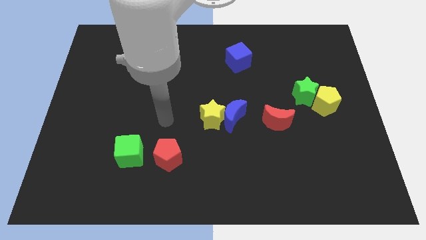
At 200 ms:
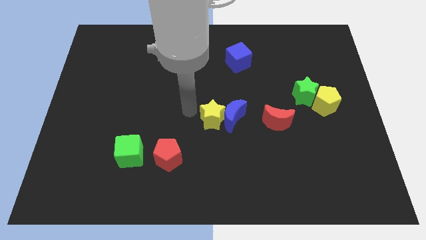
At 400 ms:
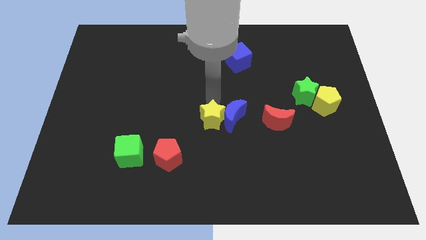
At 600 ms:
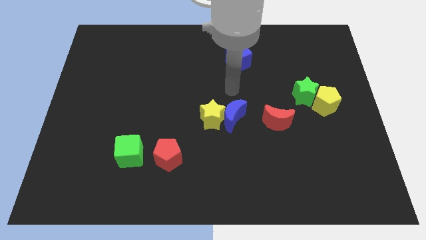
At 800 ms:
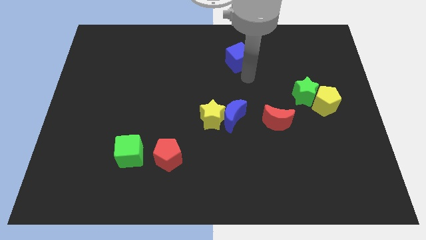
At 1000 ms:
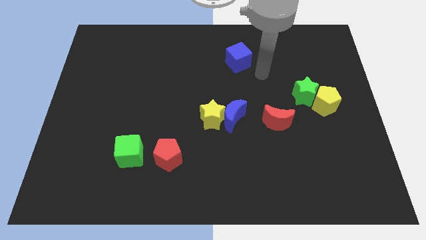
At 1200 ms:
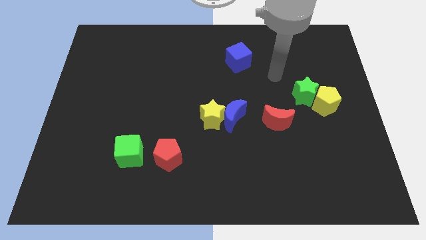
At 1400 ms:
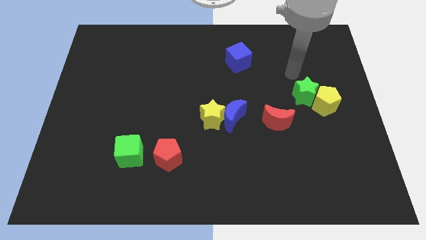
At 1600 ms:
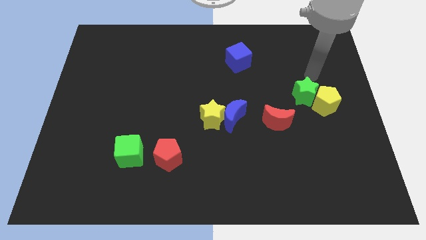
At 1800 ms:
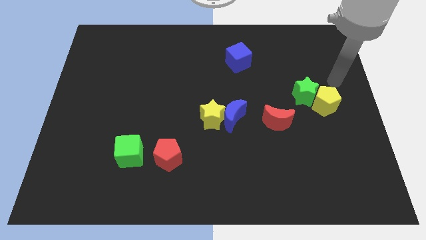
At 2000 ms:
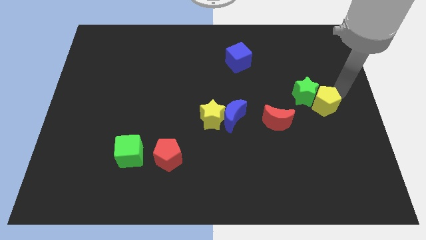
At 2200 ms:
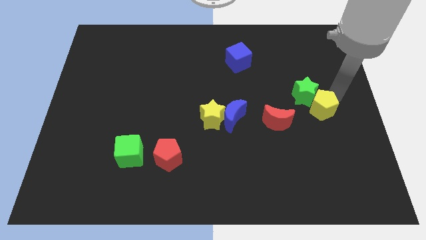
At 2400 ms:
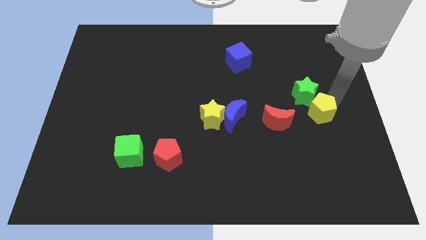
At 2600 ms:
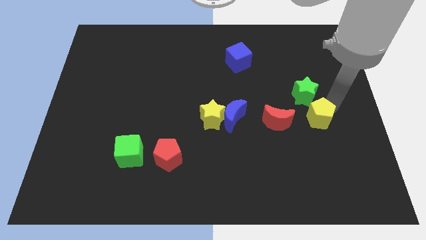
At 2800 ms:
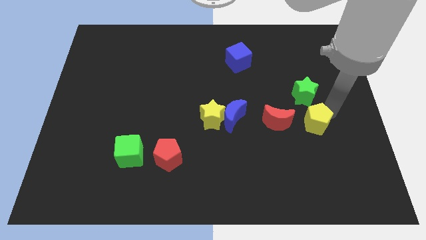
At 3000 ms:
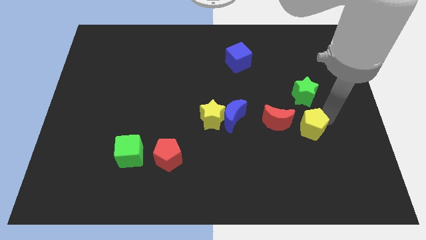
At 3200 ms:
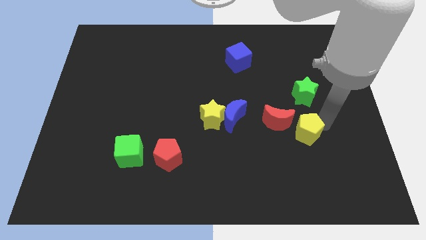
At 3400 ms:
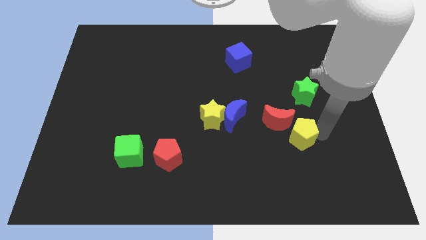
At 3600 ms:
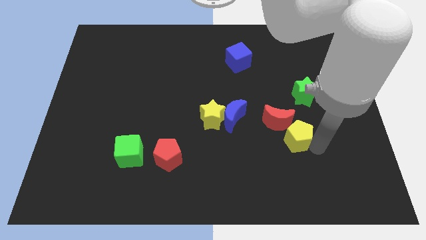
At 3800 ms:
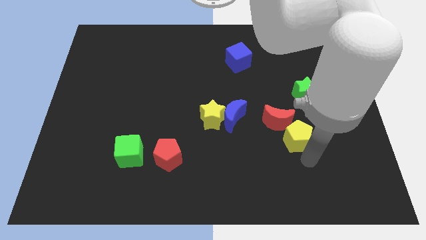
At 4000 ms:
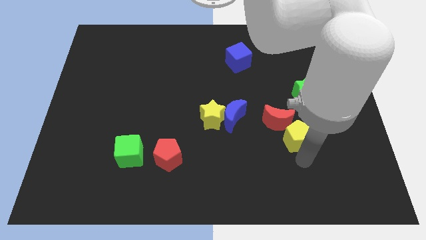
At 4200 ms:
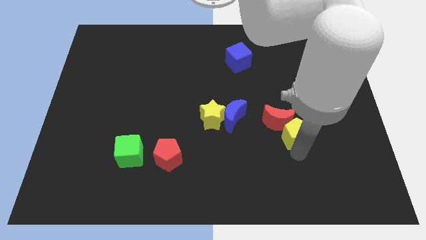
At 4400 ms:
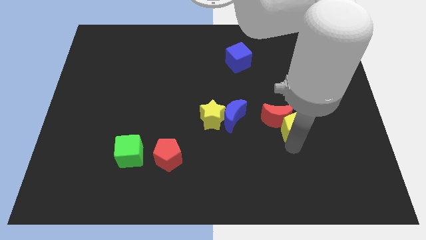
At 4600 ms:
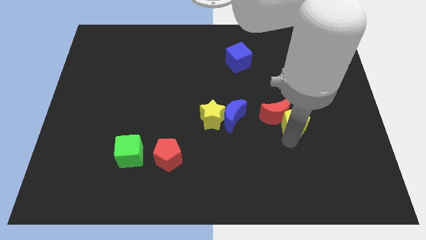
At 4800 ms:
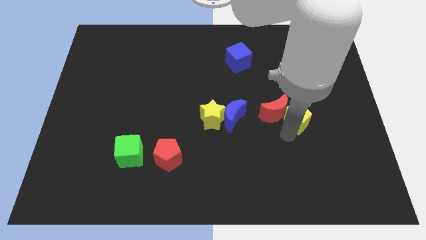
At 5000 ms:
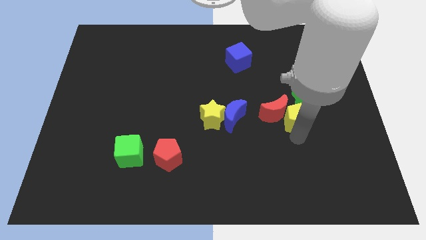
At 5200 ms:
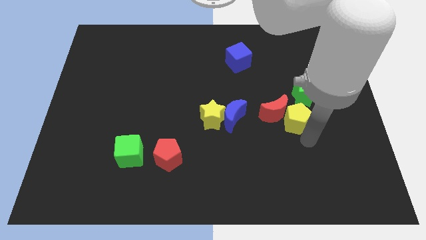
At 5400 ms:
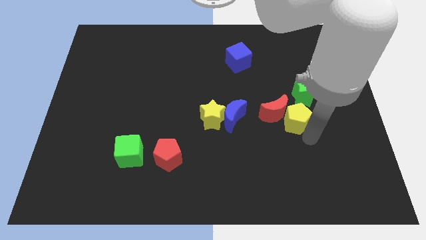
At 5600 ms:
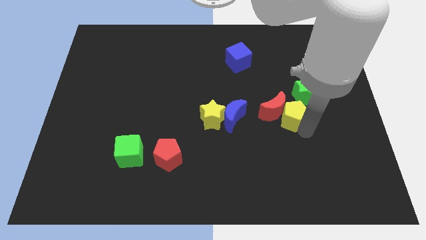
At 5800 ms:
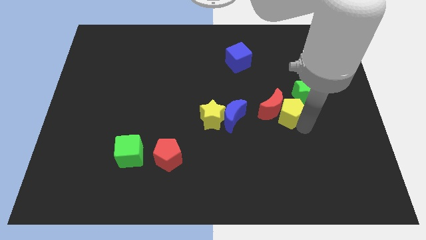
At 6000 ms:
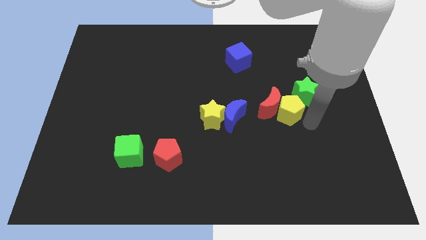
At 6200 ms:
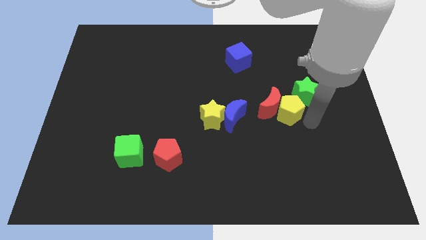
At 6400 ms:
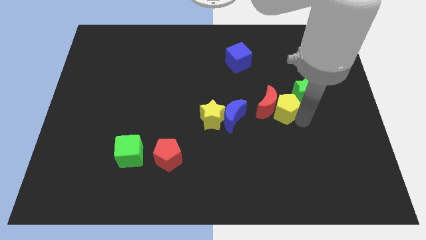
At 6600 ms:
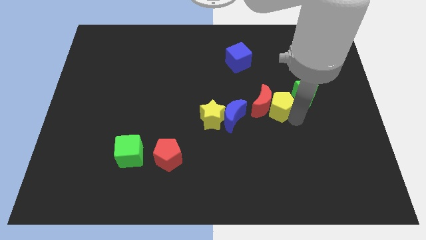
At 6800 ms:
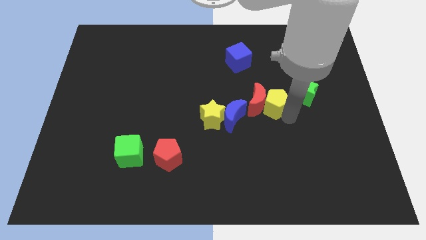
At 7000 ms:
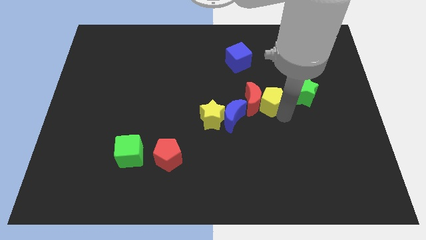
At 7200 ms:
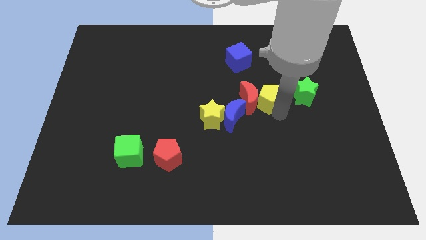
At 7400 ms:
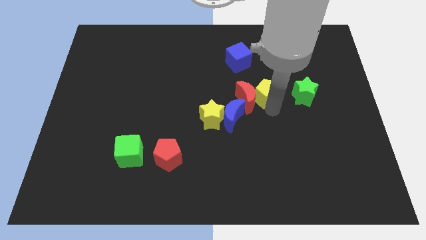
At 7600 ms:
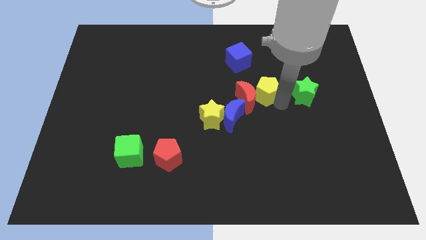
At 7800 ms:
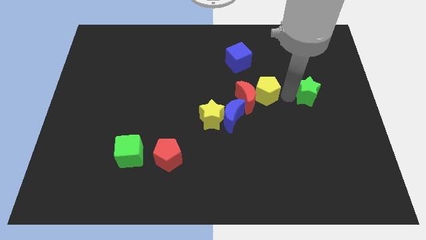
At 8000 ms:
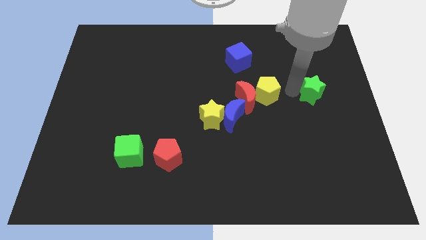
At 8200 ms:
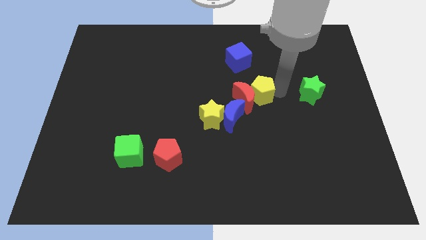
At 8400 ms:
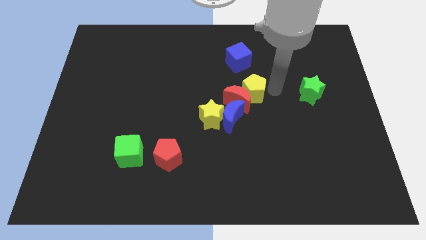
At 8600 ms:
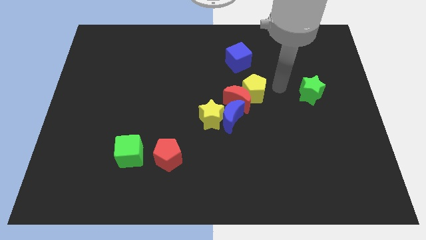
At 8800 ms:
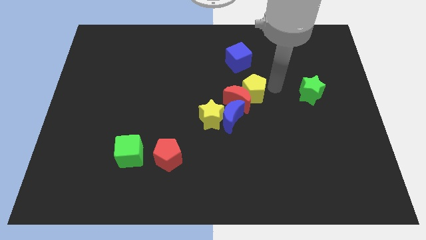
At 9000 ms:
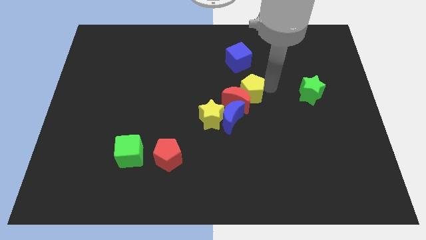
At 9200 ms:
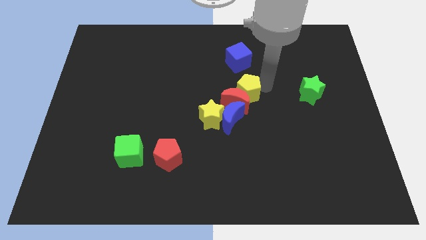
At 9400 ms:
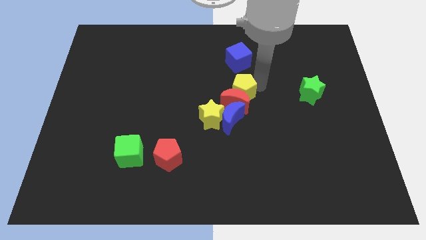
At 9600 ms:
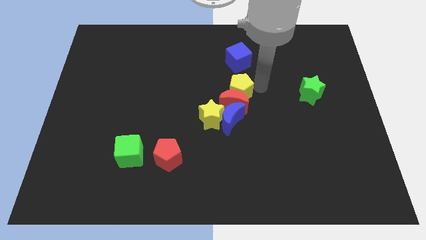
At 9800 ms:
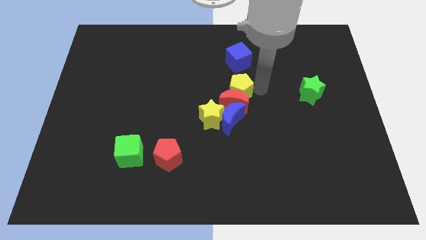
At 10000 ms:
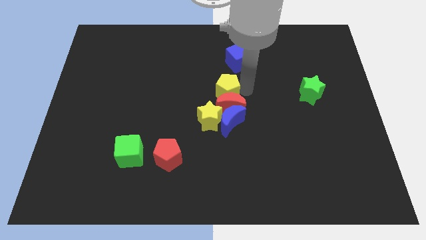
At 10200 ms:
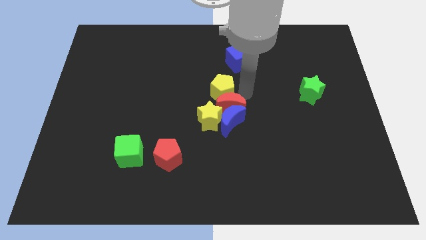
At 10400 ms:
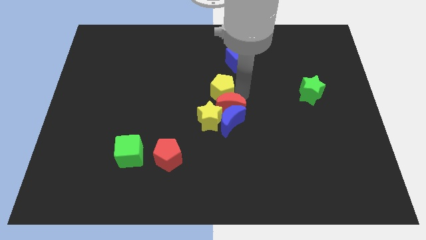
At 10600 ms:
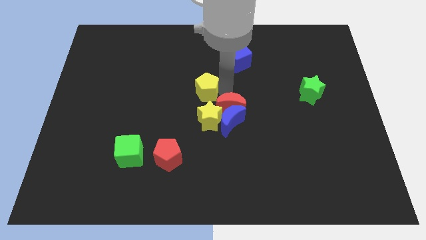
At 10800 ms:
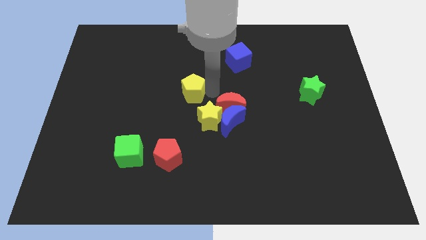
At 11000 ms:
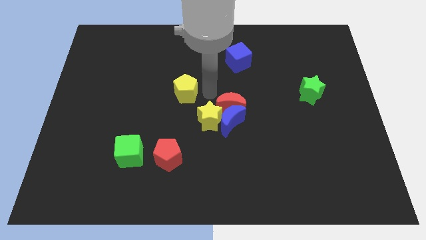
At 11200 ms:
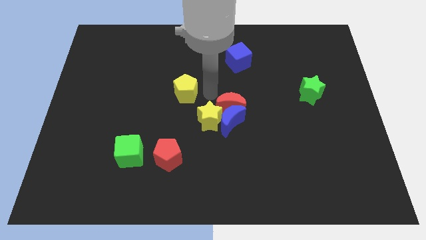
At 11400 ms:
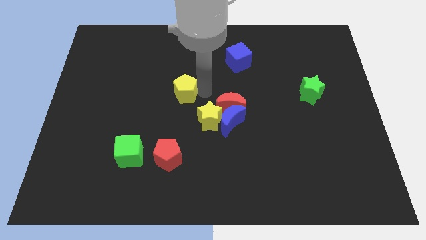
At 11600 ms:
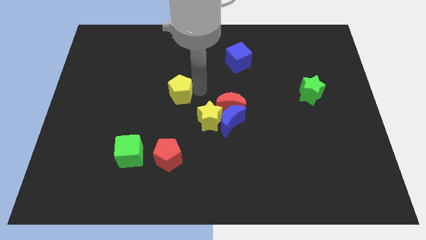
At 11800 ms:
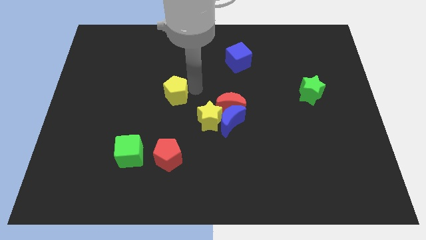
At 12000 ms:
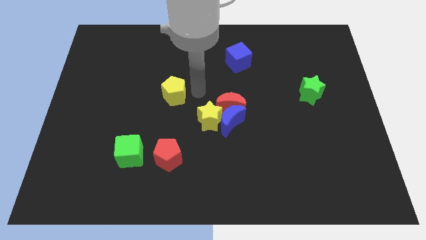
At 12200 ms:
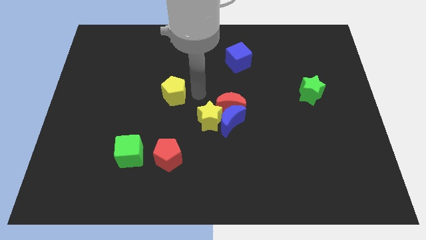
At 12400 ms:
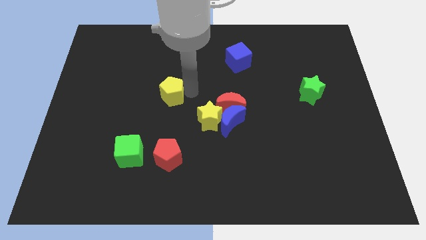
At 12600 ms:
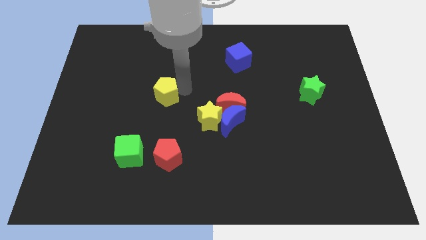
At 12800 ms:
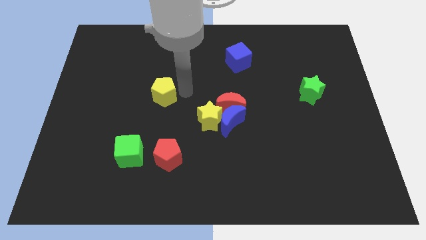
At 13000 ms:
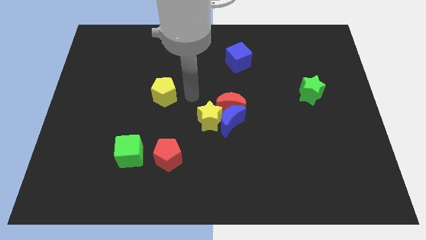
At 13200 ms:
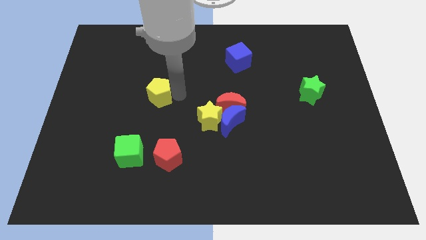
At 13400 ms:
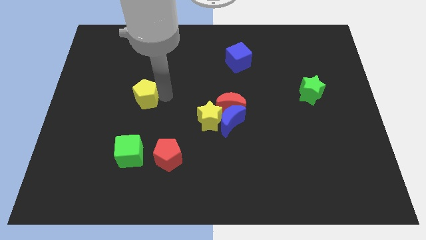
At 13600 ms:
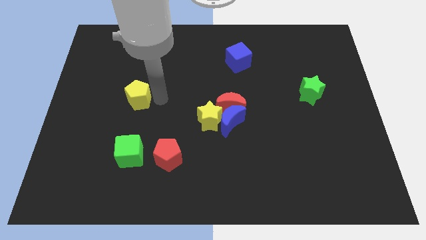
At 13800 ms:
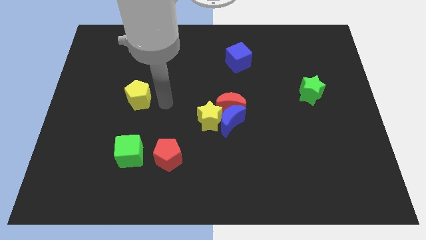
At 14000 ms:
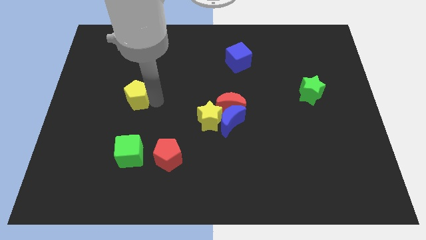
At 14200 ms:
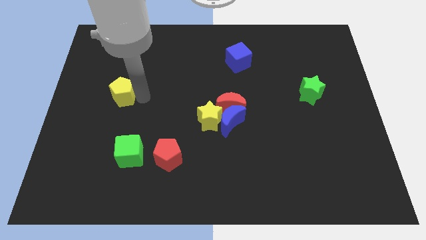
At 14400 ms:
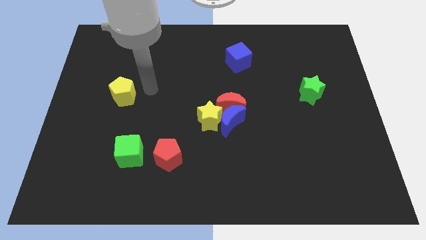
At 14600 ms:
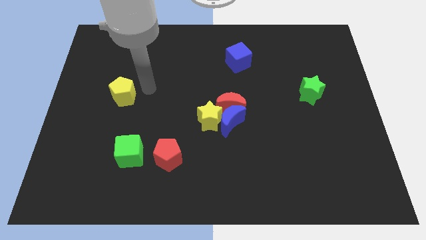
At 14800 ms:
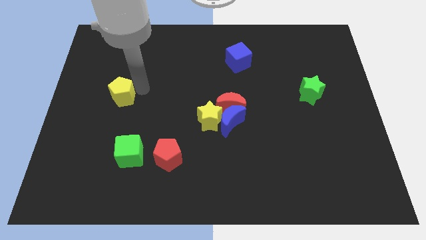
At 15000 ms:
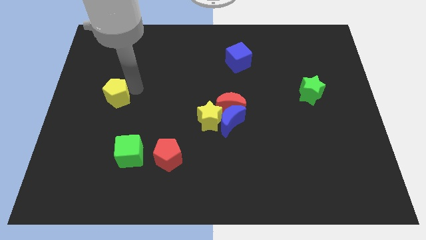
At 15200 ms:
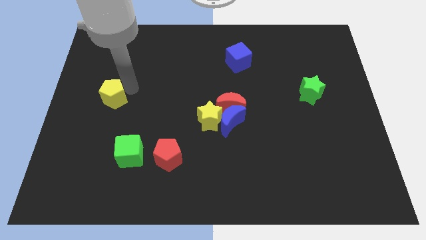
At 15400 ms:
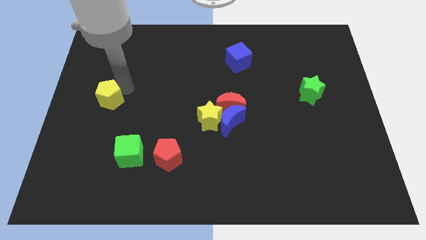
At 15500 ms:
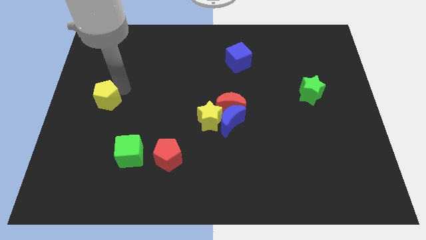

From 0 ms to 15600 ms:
slide the yellow pentagon to the center left
